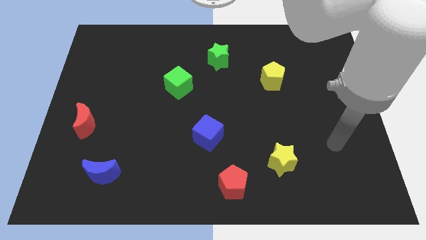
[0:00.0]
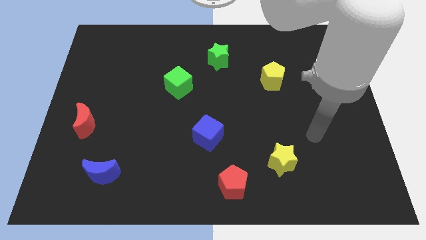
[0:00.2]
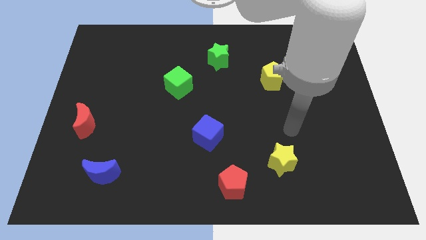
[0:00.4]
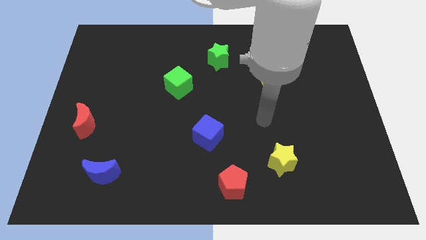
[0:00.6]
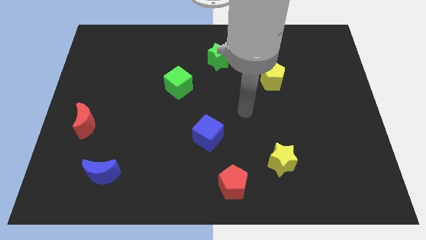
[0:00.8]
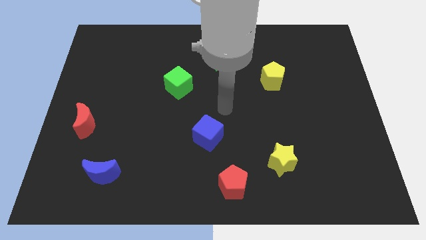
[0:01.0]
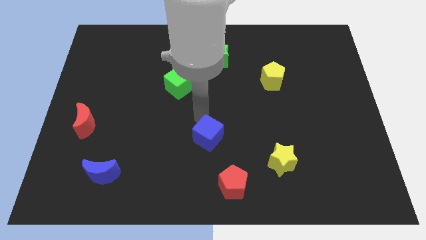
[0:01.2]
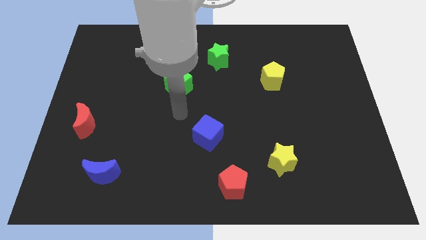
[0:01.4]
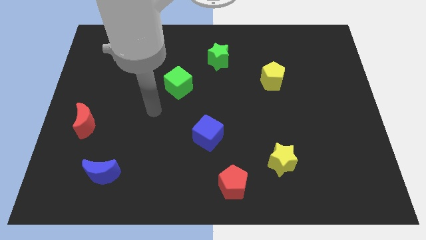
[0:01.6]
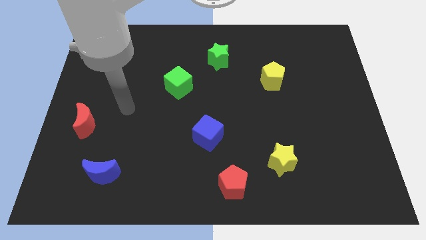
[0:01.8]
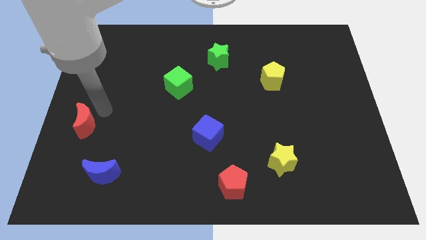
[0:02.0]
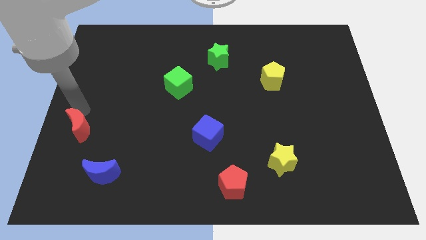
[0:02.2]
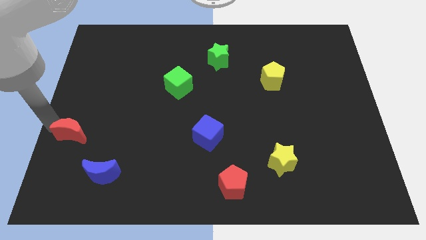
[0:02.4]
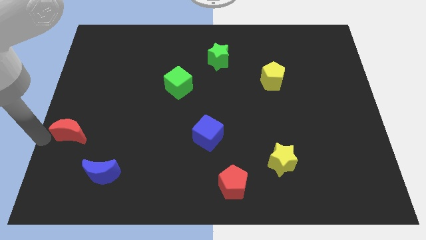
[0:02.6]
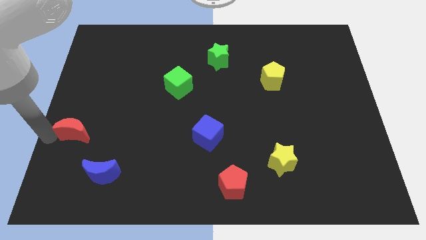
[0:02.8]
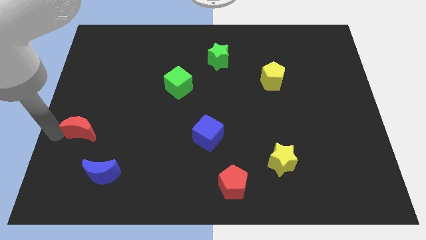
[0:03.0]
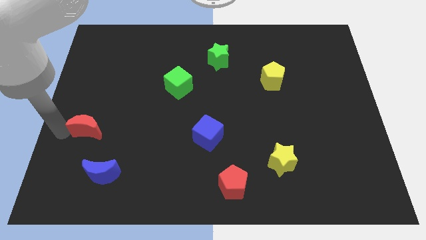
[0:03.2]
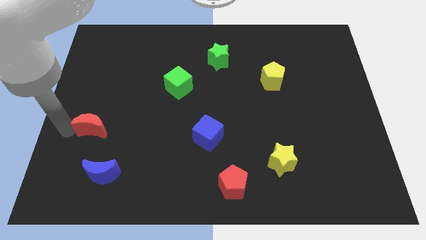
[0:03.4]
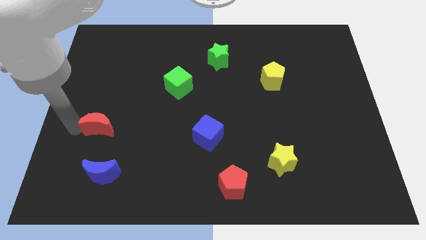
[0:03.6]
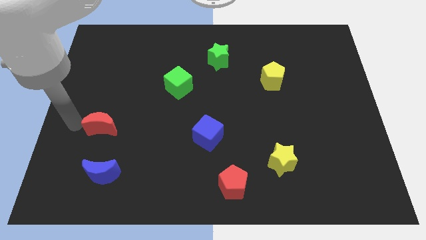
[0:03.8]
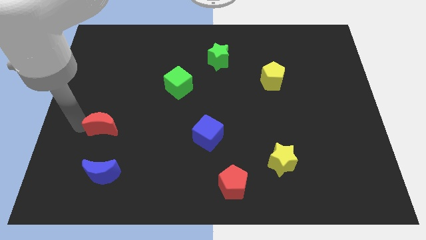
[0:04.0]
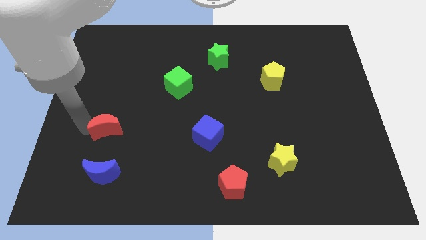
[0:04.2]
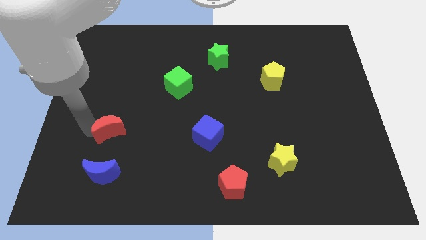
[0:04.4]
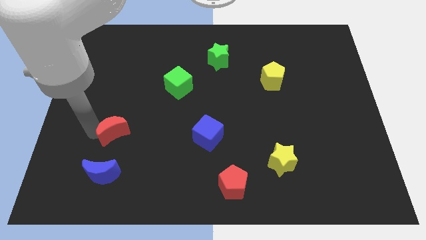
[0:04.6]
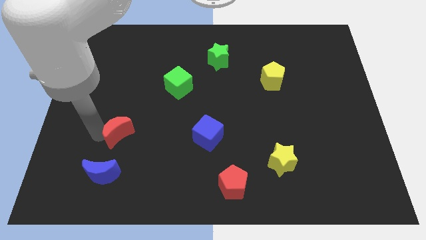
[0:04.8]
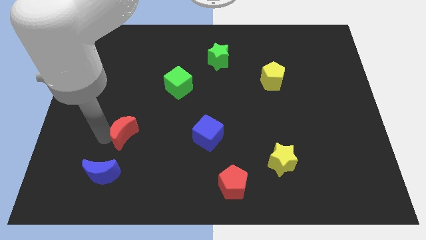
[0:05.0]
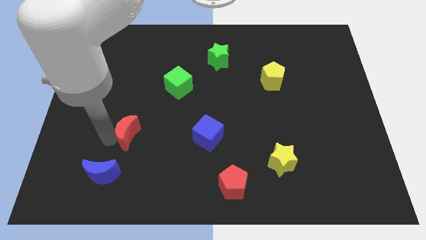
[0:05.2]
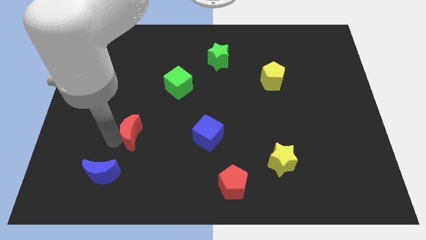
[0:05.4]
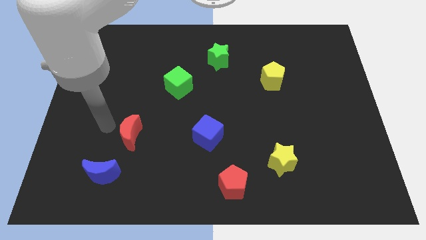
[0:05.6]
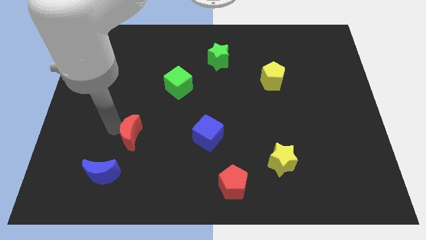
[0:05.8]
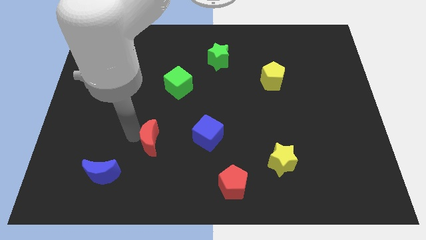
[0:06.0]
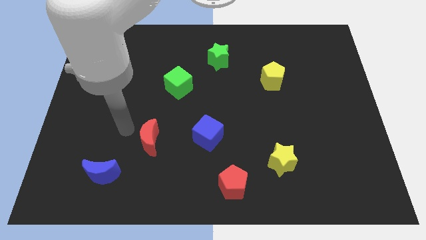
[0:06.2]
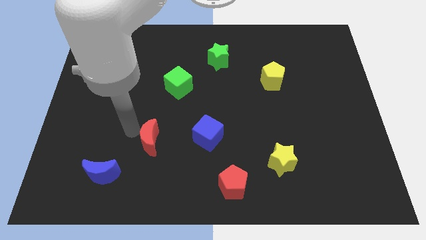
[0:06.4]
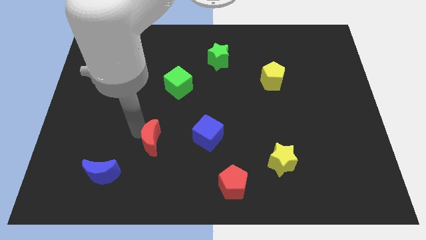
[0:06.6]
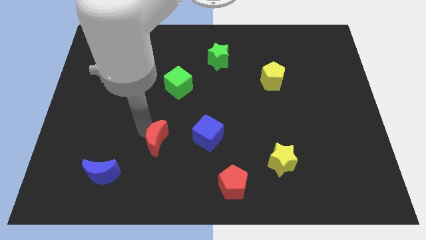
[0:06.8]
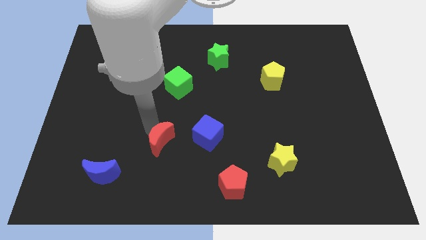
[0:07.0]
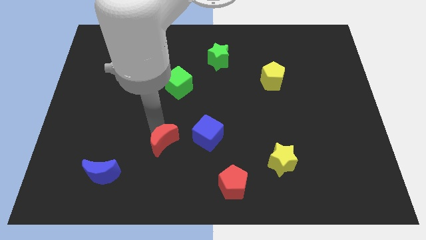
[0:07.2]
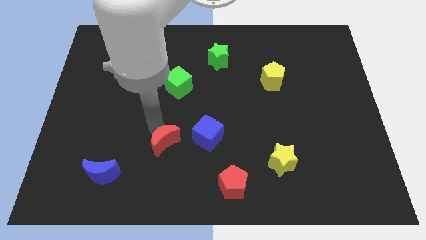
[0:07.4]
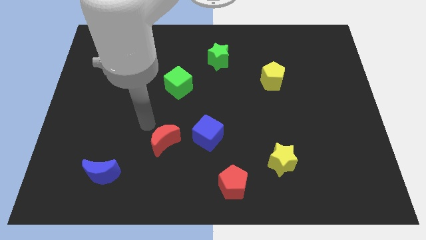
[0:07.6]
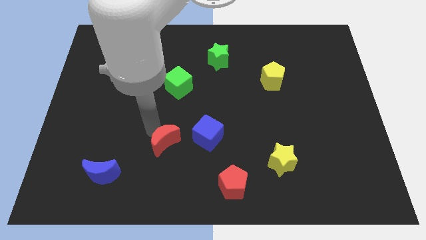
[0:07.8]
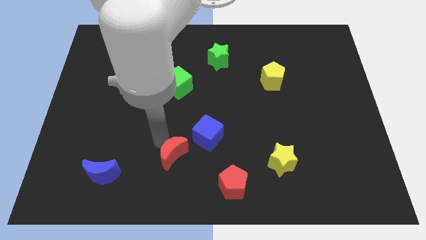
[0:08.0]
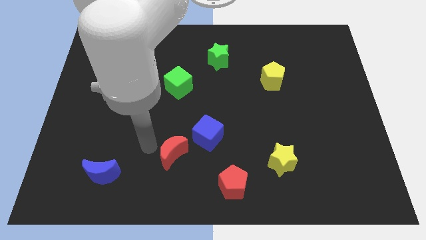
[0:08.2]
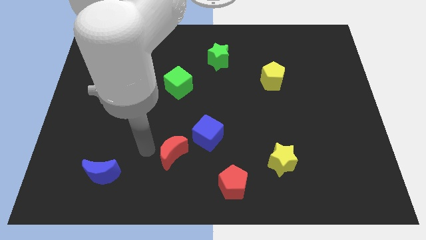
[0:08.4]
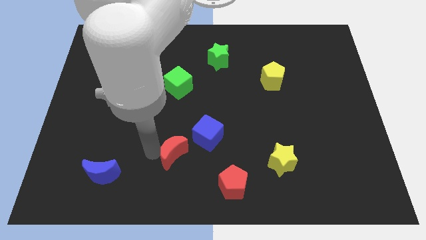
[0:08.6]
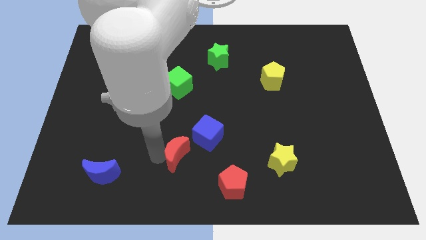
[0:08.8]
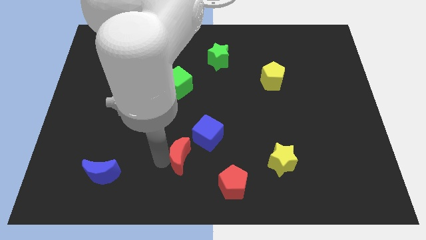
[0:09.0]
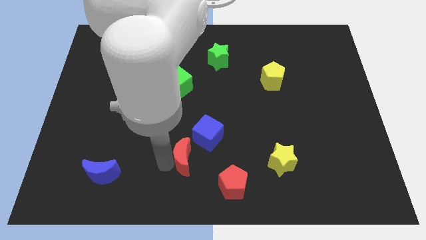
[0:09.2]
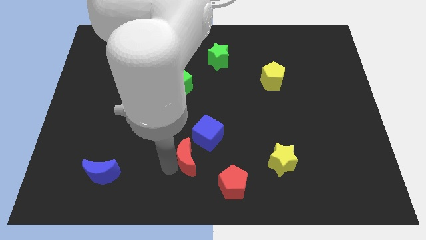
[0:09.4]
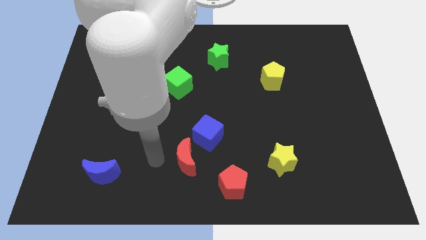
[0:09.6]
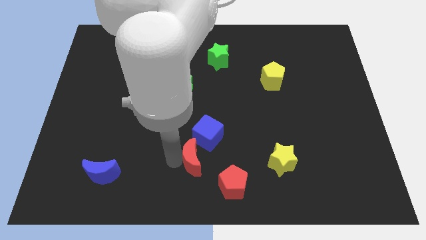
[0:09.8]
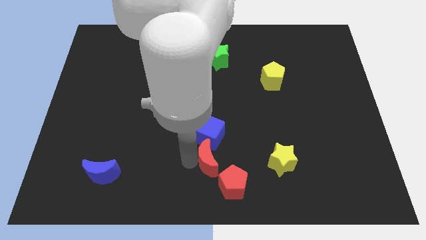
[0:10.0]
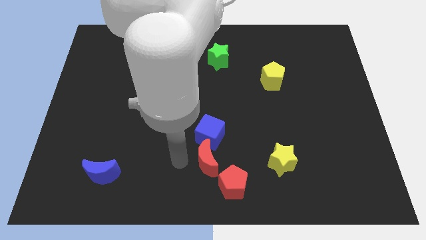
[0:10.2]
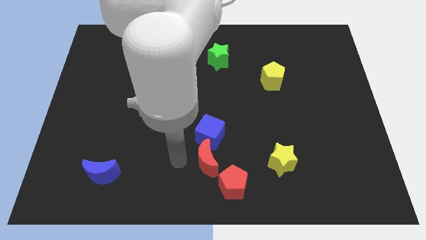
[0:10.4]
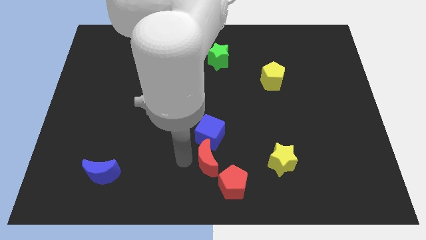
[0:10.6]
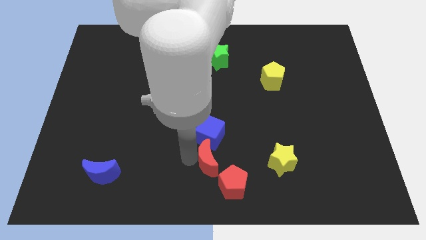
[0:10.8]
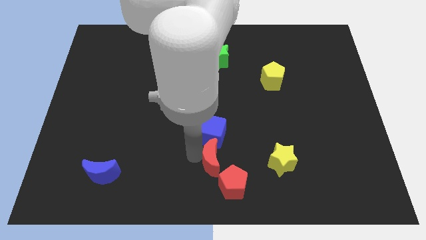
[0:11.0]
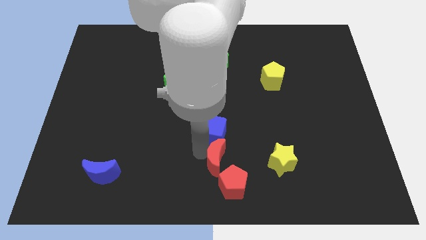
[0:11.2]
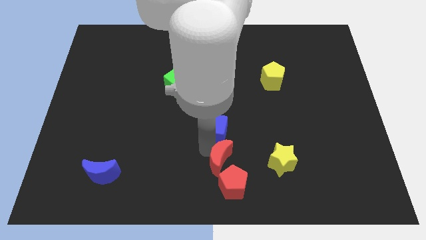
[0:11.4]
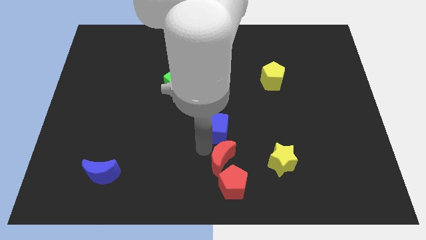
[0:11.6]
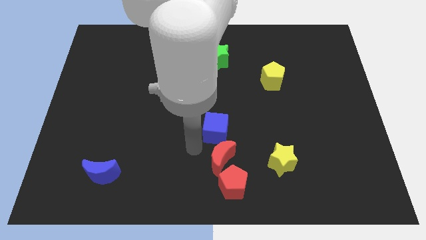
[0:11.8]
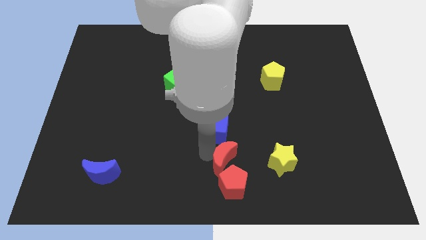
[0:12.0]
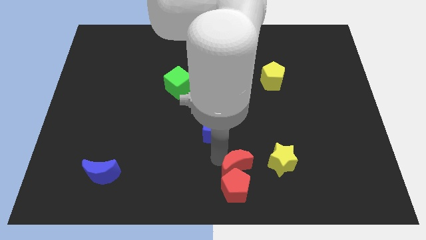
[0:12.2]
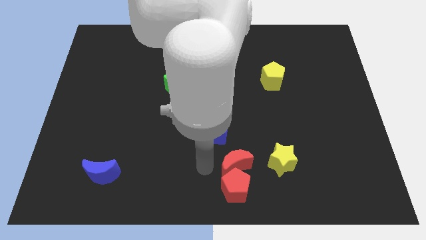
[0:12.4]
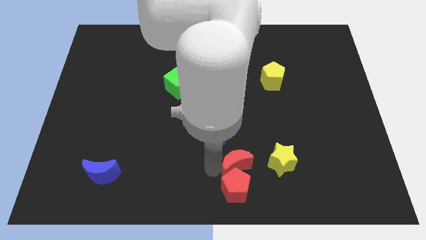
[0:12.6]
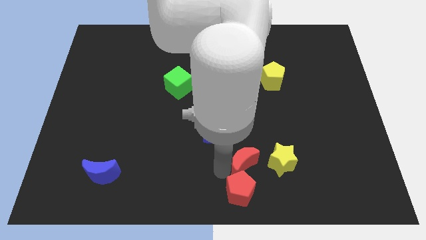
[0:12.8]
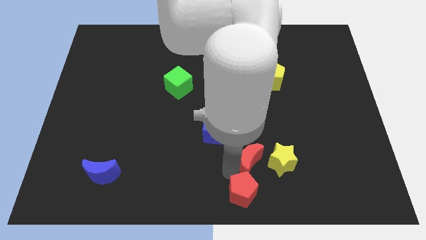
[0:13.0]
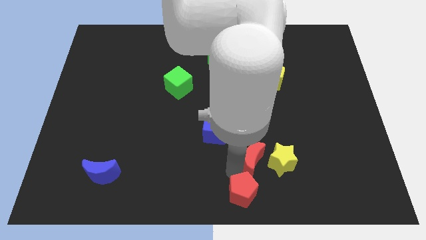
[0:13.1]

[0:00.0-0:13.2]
slide the red moon close to the yellow star

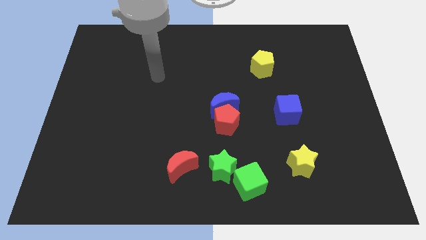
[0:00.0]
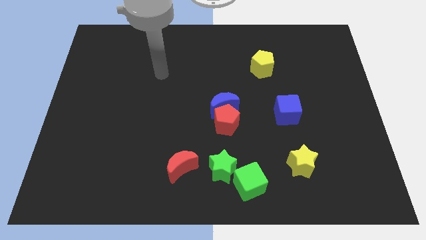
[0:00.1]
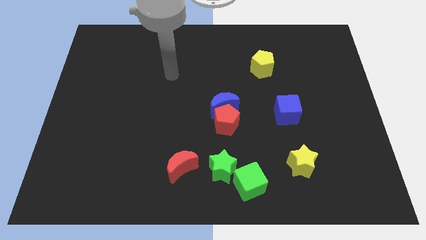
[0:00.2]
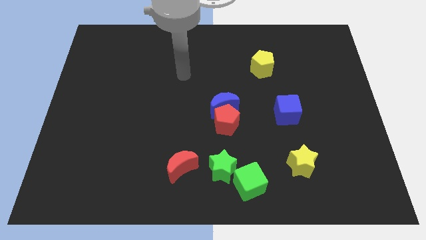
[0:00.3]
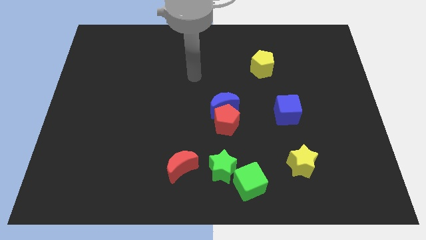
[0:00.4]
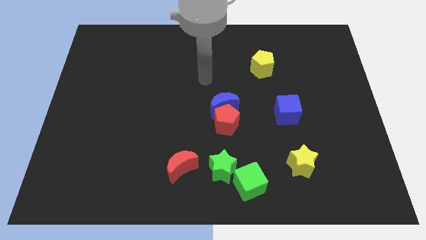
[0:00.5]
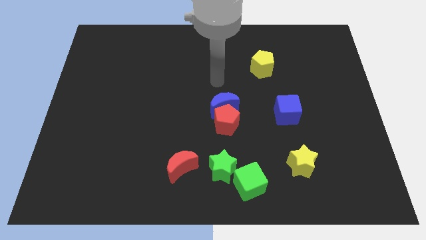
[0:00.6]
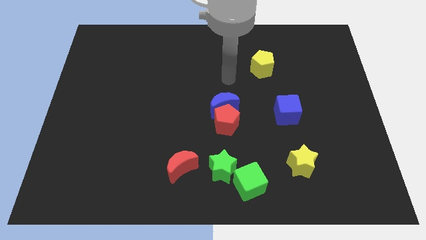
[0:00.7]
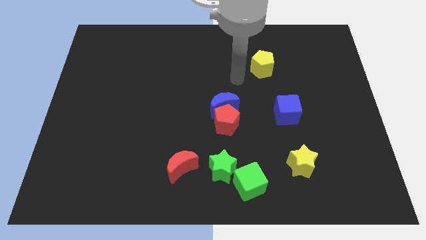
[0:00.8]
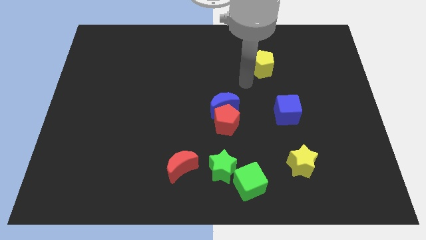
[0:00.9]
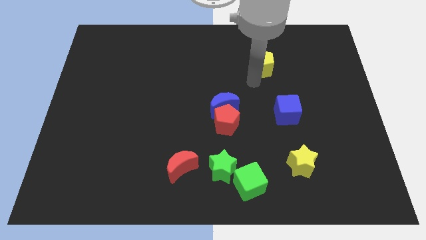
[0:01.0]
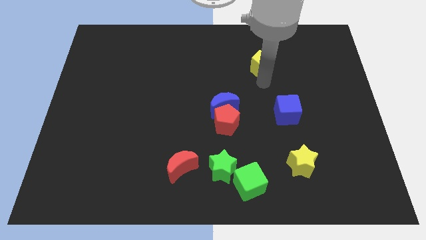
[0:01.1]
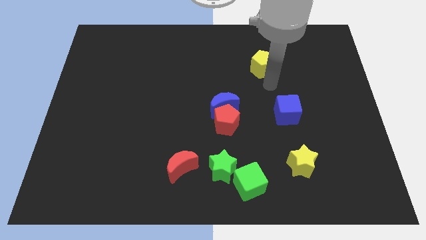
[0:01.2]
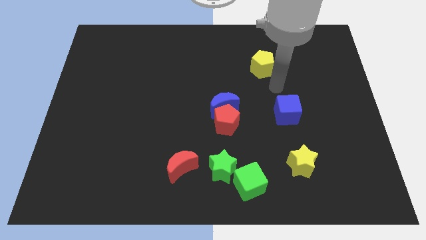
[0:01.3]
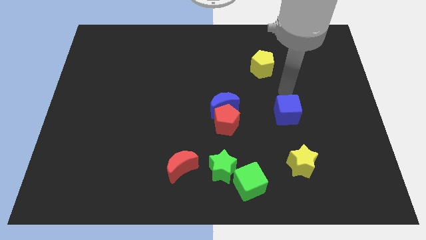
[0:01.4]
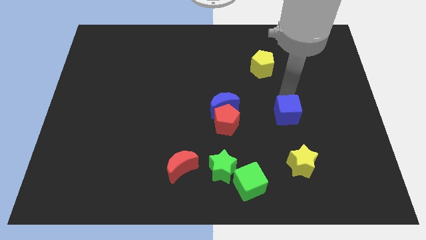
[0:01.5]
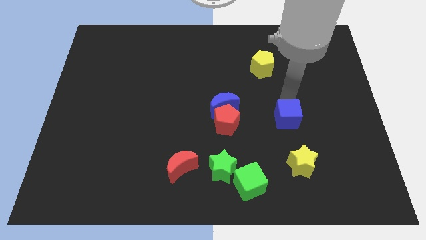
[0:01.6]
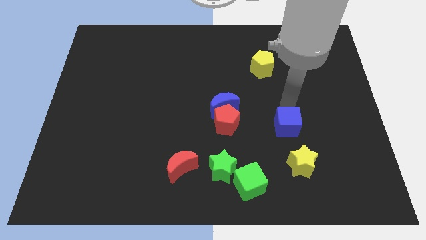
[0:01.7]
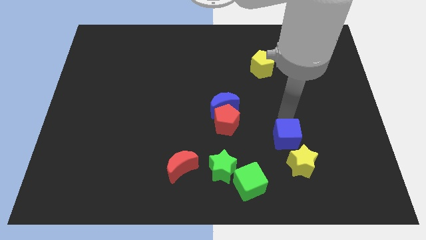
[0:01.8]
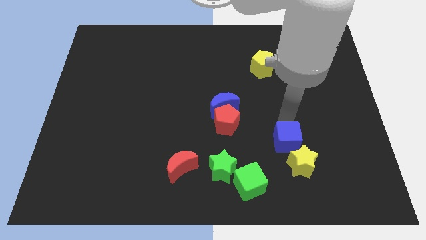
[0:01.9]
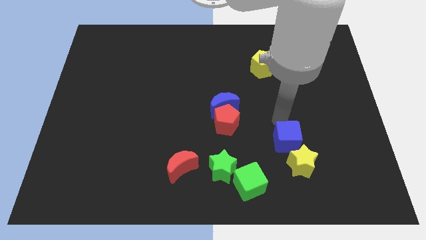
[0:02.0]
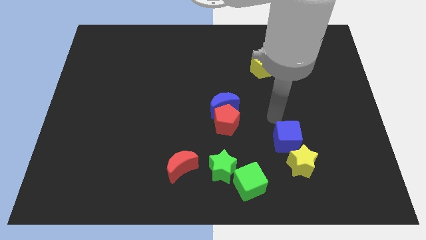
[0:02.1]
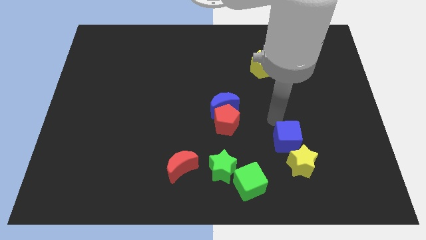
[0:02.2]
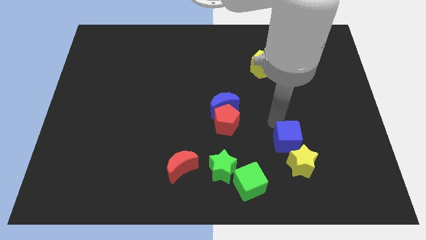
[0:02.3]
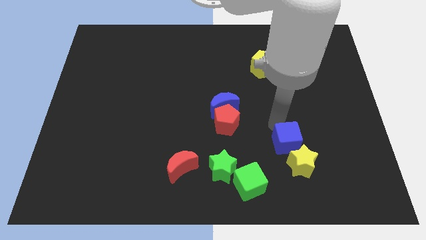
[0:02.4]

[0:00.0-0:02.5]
put the blue cube next to the yellow star
